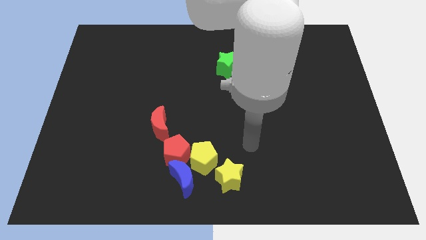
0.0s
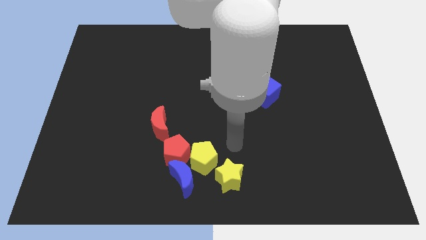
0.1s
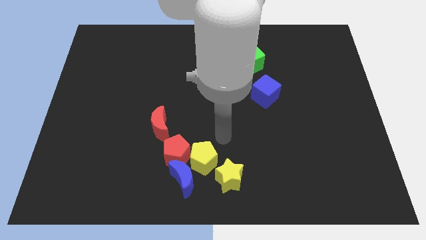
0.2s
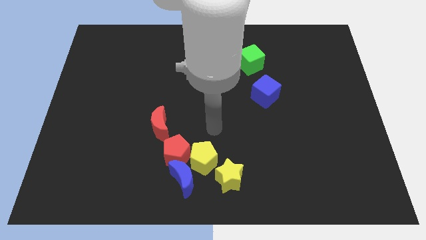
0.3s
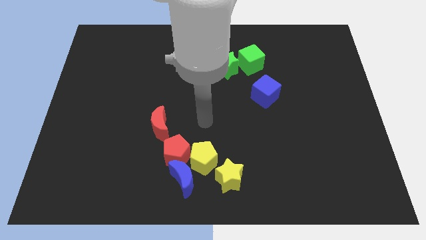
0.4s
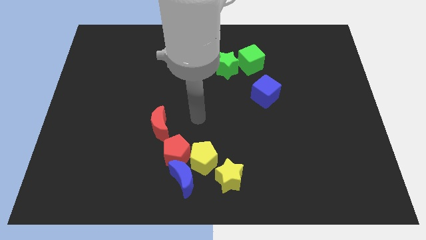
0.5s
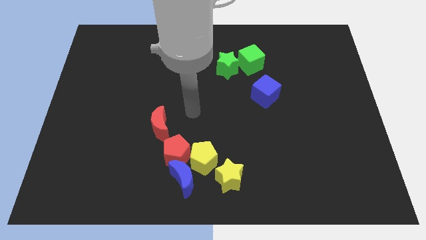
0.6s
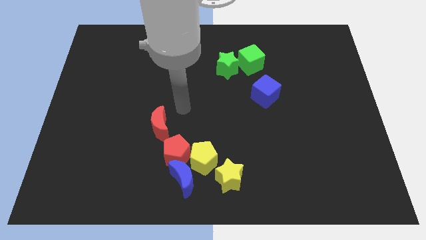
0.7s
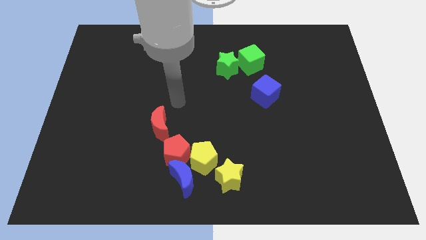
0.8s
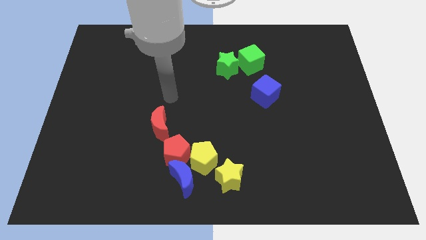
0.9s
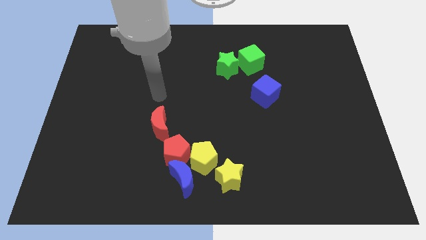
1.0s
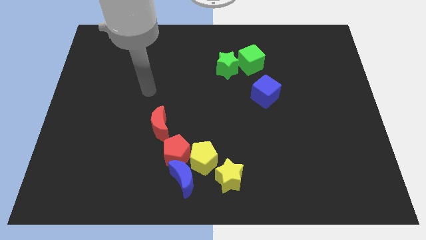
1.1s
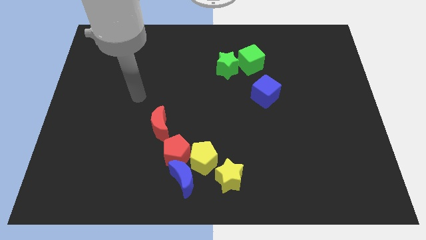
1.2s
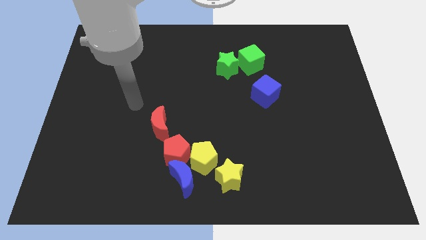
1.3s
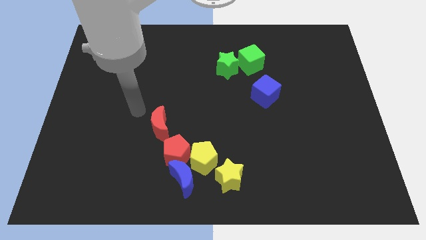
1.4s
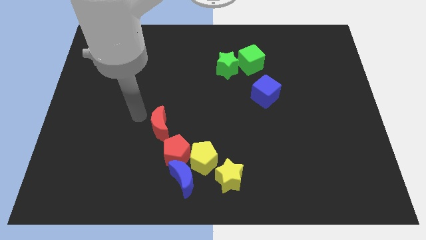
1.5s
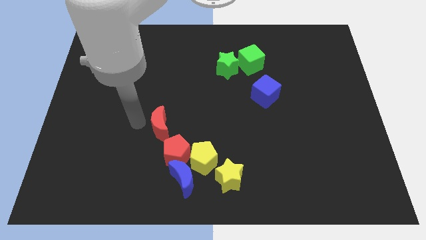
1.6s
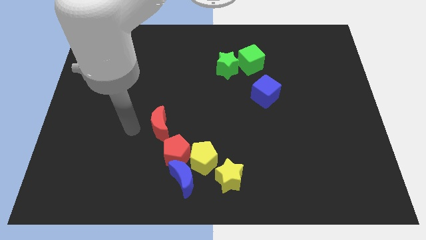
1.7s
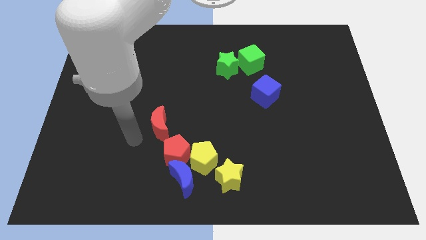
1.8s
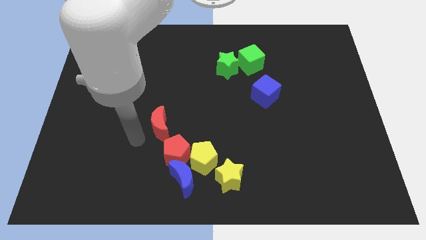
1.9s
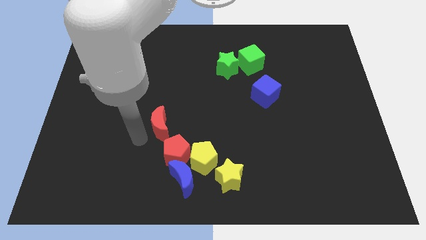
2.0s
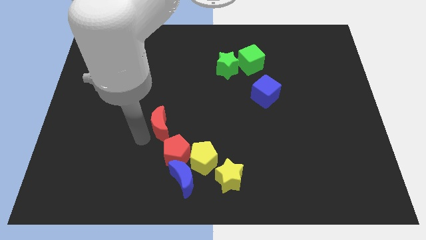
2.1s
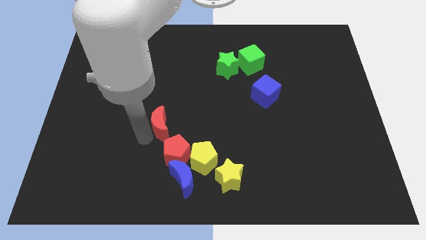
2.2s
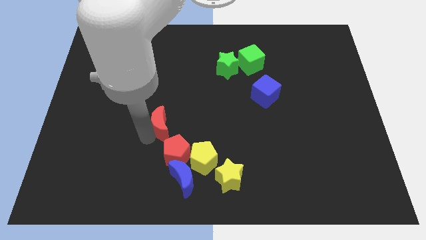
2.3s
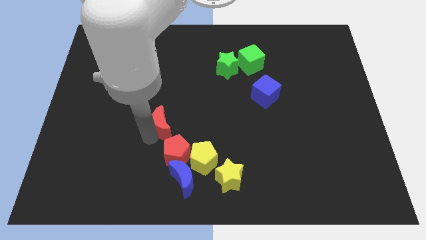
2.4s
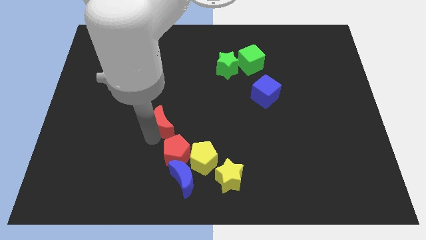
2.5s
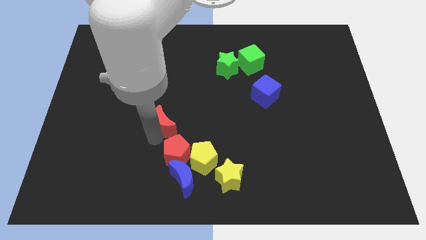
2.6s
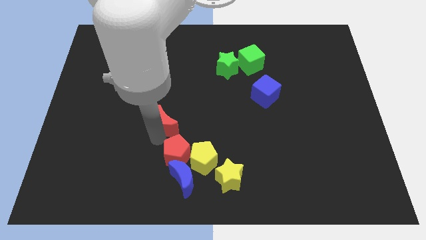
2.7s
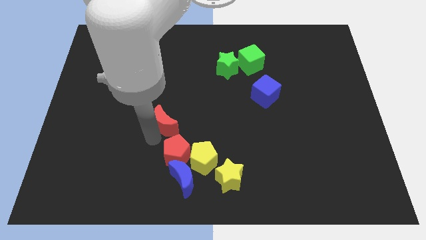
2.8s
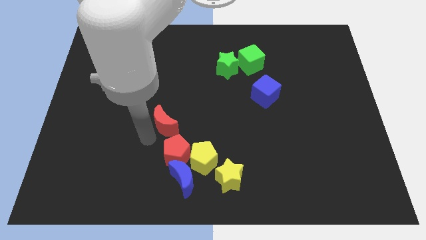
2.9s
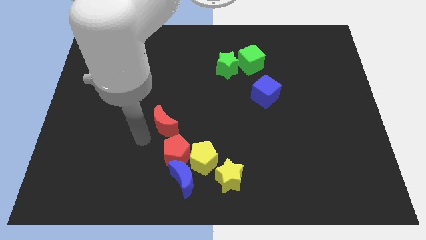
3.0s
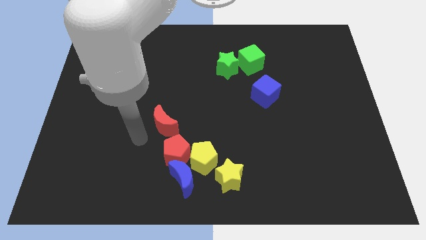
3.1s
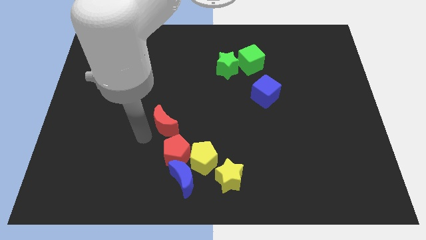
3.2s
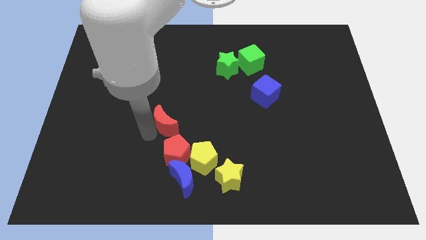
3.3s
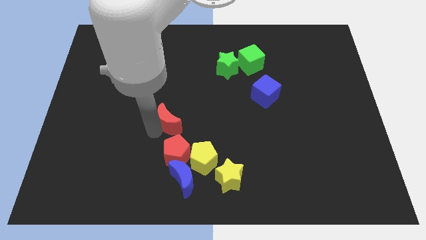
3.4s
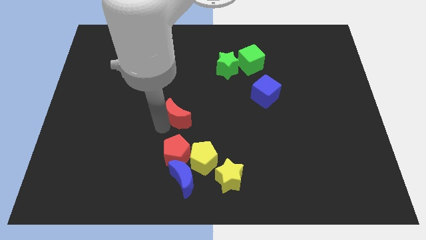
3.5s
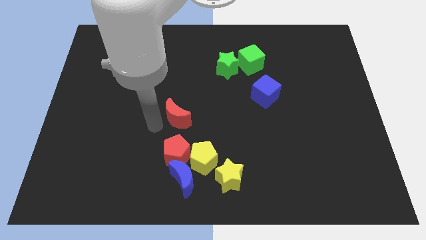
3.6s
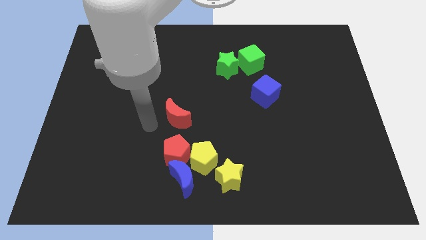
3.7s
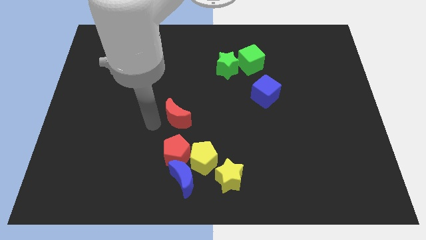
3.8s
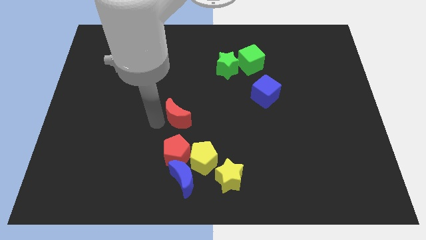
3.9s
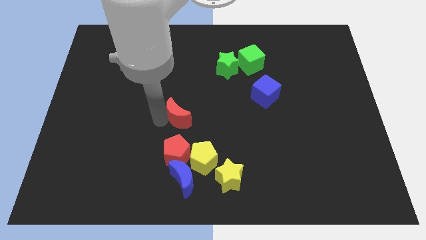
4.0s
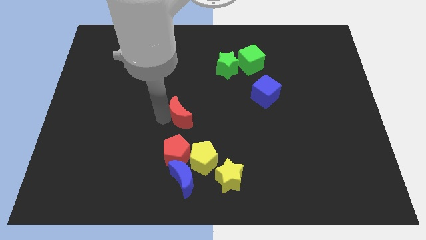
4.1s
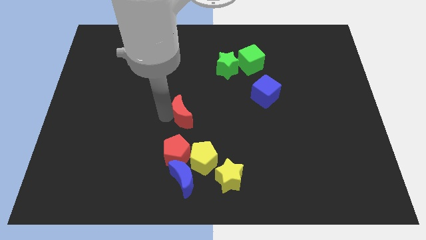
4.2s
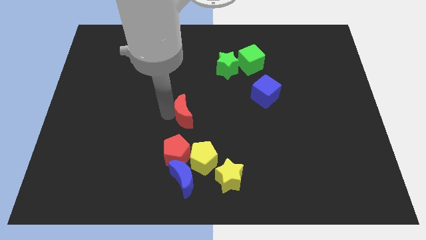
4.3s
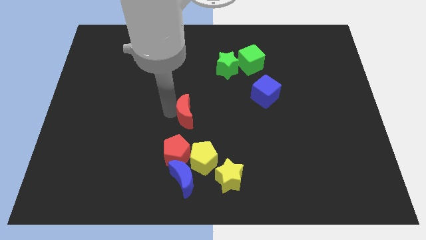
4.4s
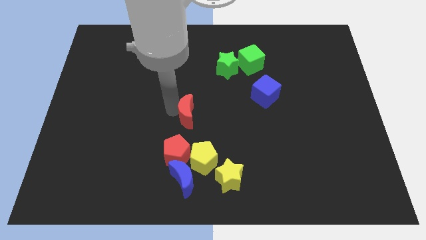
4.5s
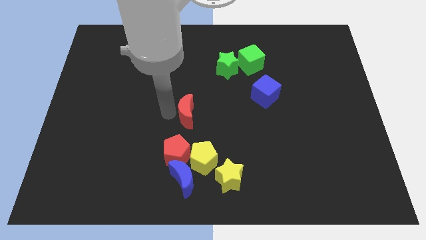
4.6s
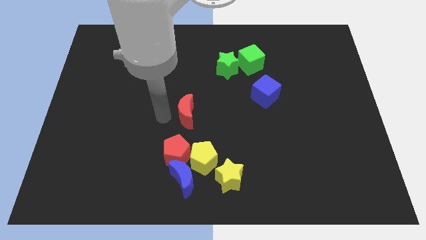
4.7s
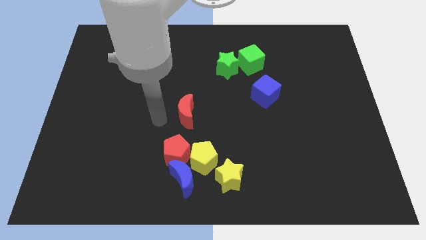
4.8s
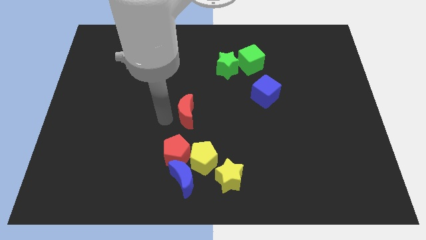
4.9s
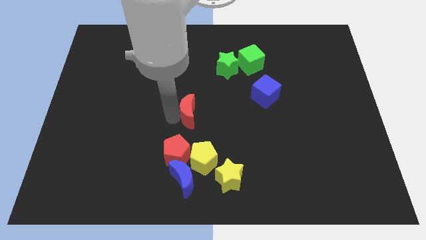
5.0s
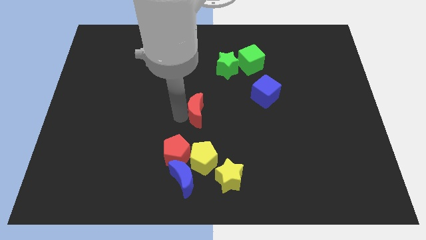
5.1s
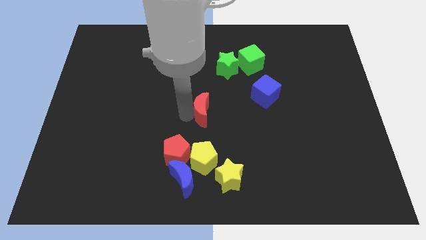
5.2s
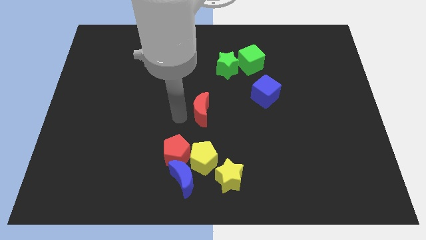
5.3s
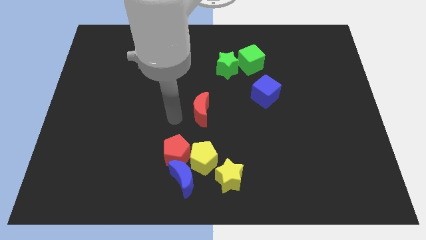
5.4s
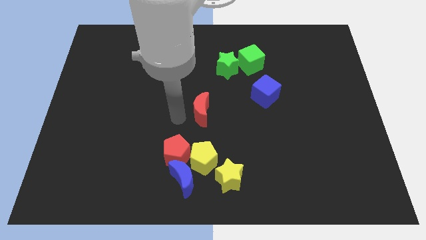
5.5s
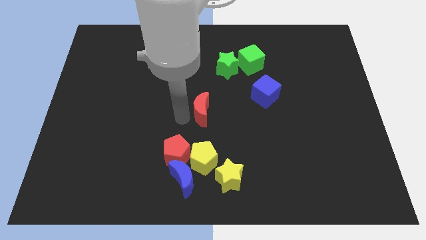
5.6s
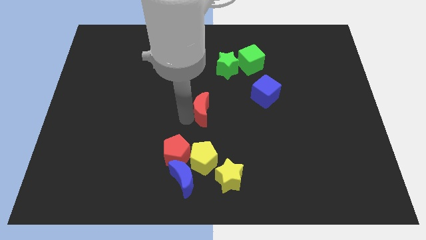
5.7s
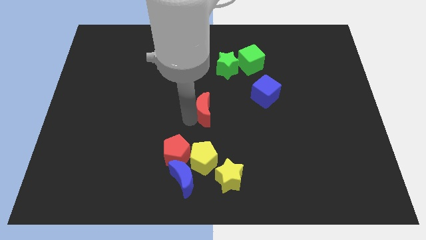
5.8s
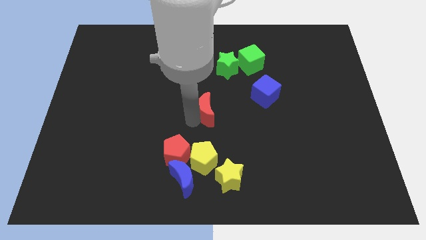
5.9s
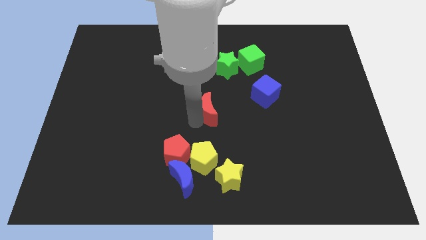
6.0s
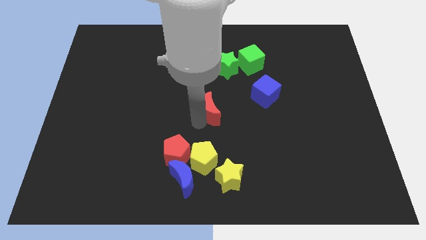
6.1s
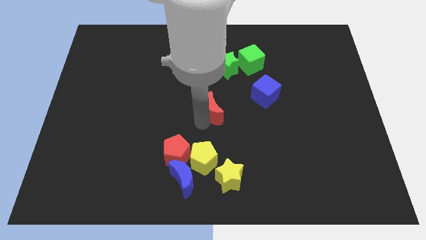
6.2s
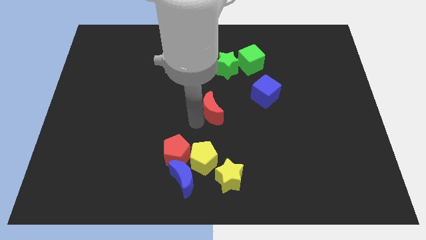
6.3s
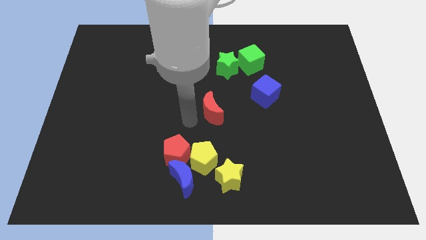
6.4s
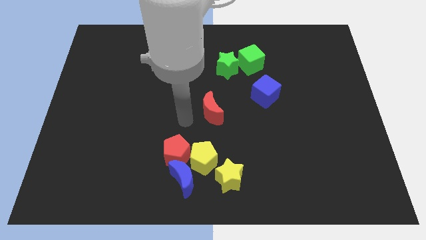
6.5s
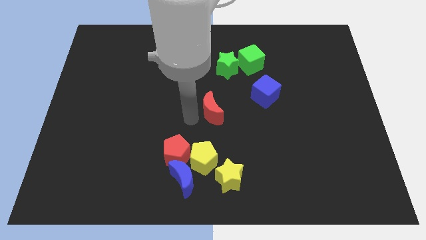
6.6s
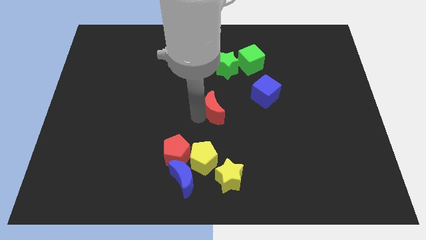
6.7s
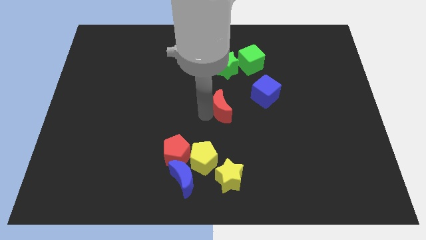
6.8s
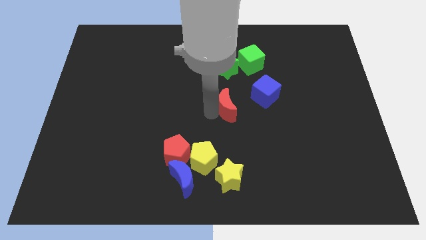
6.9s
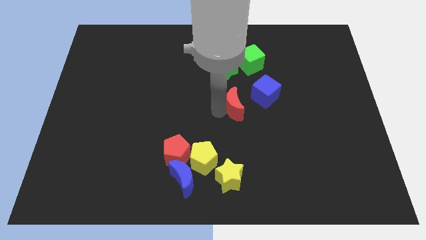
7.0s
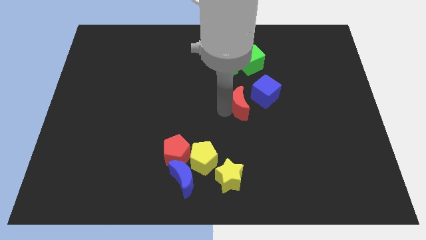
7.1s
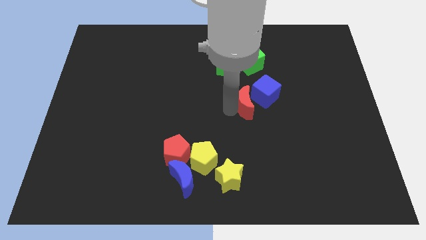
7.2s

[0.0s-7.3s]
put the red moon next to the blue cube

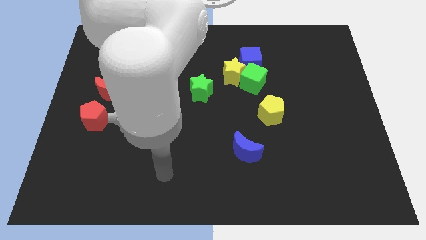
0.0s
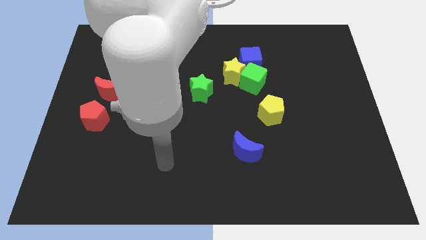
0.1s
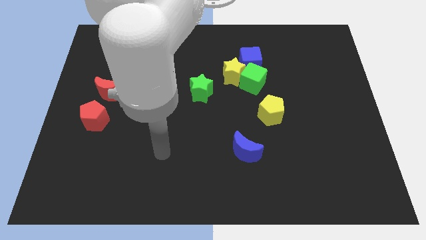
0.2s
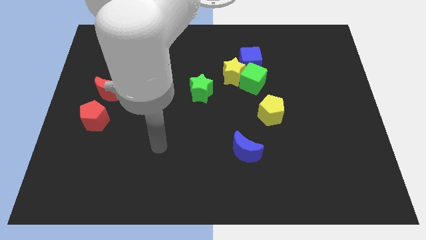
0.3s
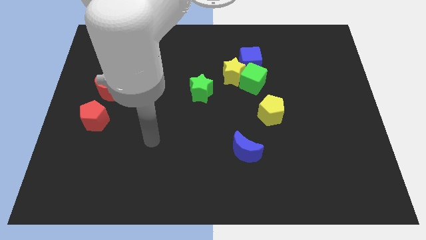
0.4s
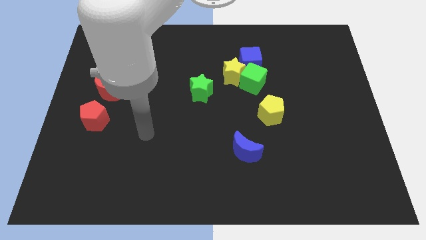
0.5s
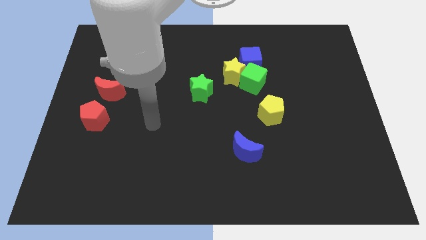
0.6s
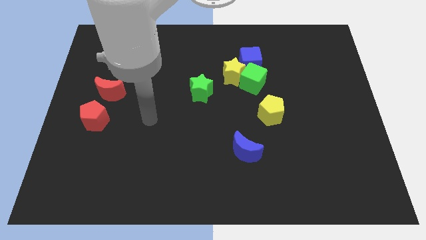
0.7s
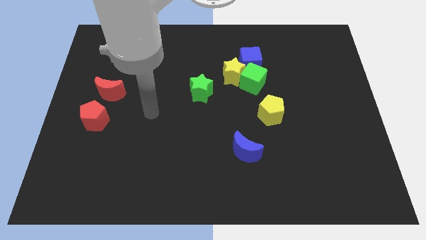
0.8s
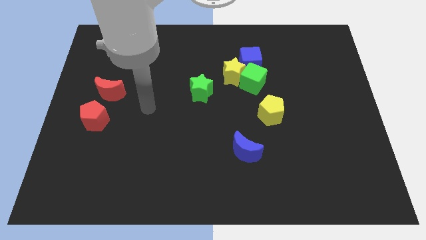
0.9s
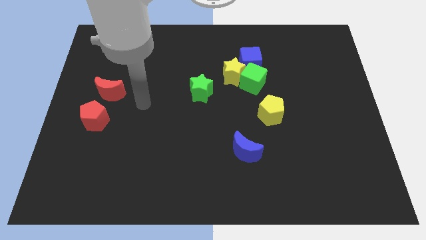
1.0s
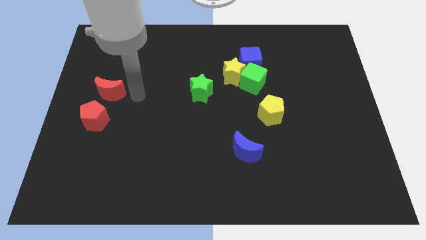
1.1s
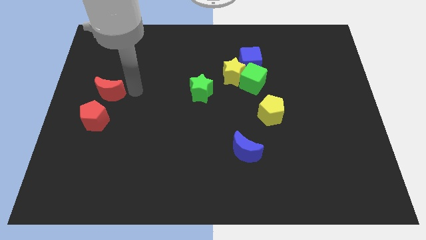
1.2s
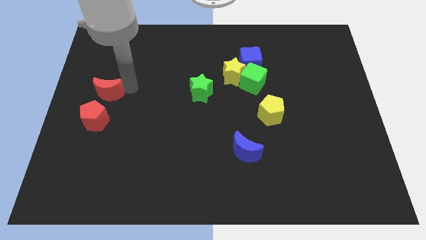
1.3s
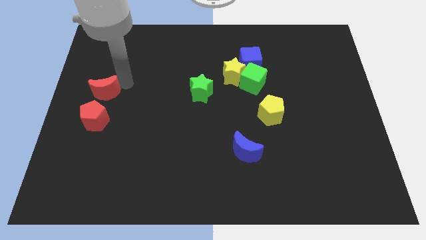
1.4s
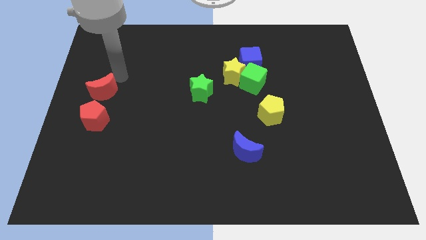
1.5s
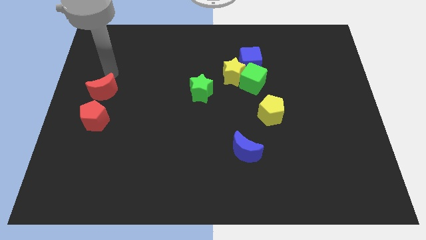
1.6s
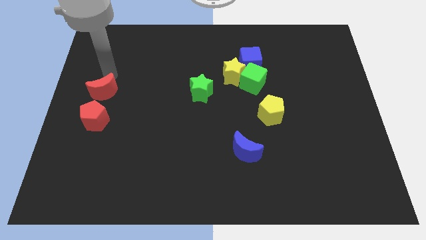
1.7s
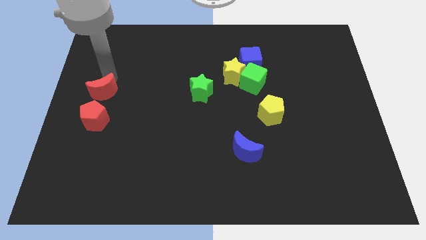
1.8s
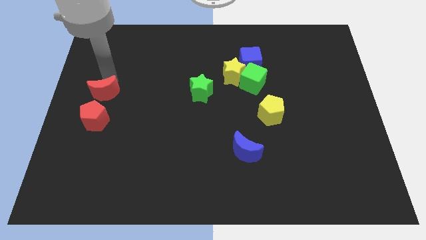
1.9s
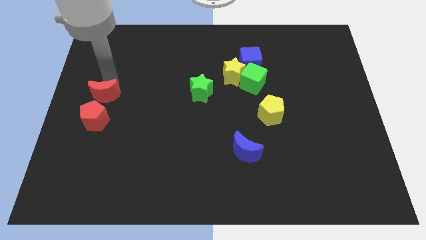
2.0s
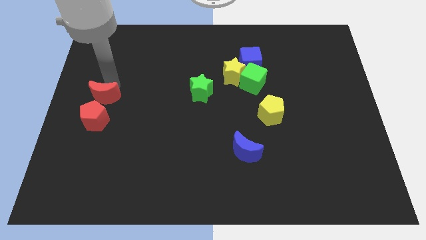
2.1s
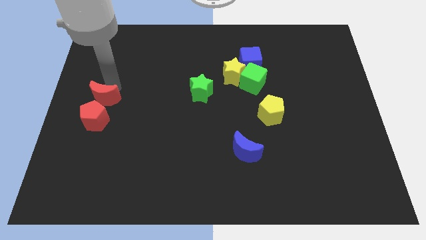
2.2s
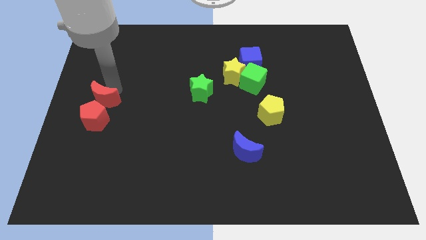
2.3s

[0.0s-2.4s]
move the red moon close to the red pentagon
